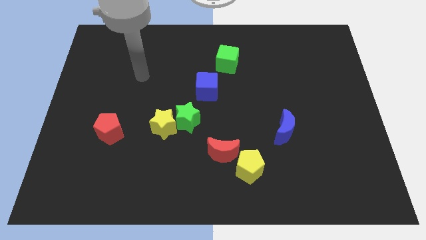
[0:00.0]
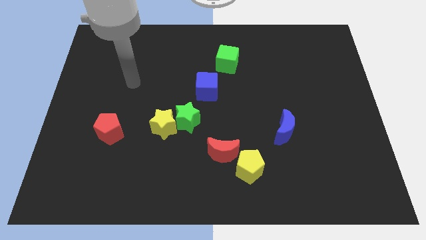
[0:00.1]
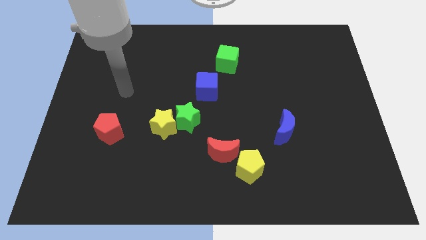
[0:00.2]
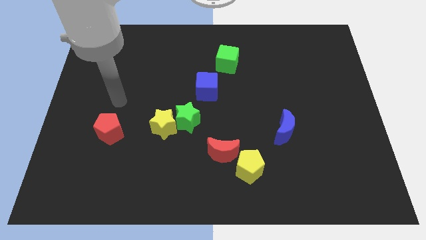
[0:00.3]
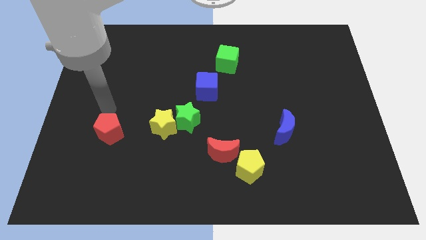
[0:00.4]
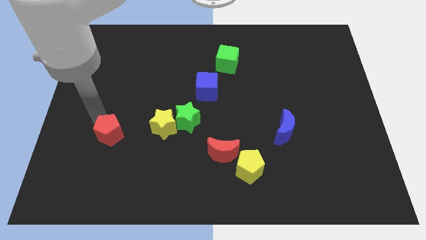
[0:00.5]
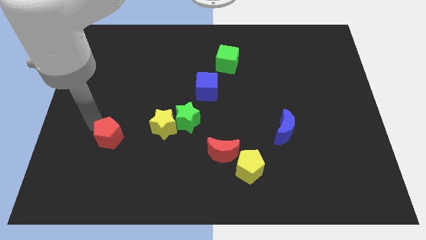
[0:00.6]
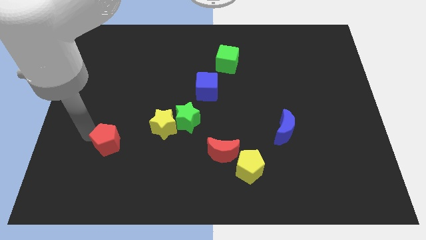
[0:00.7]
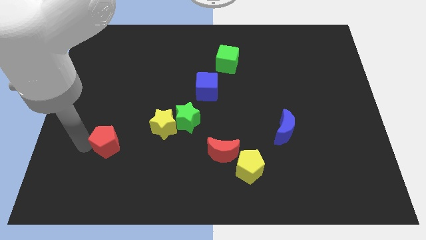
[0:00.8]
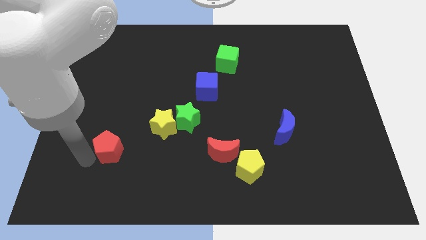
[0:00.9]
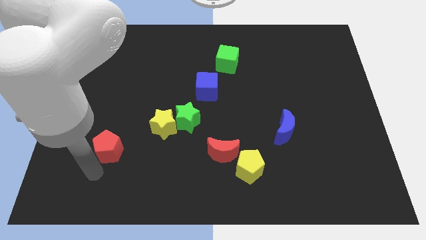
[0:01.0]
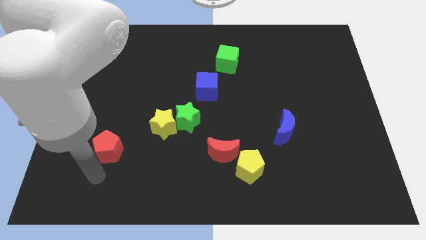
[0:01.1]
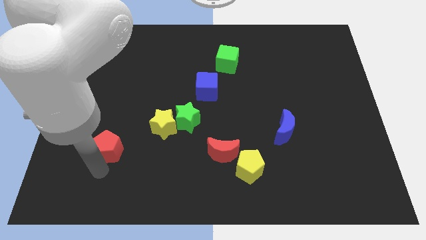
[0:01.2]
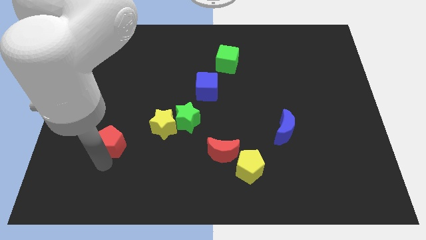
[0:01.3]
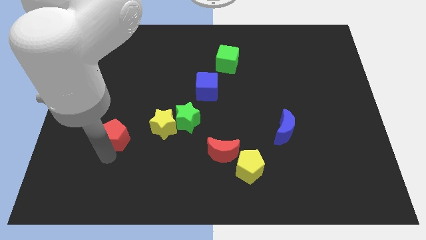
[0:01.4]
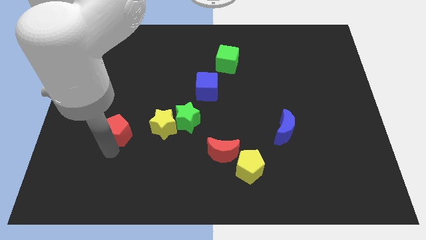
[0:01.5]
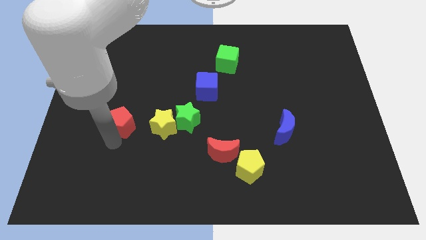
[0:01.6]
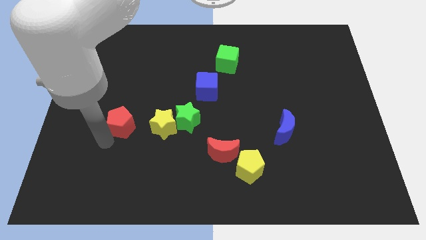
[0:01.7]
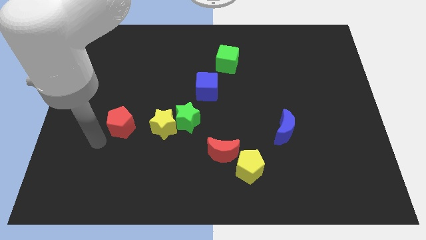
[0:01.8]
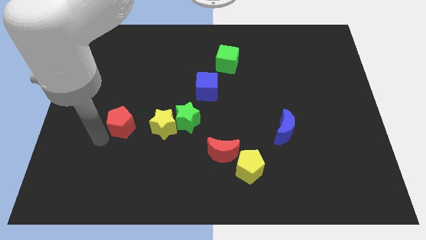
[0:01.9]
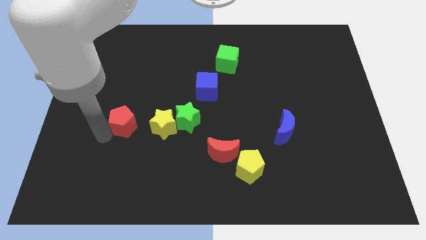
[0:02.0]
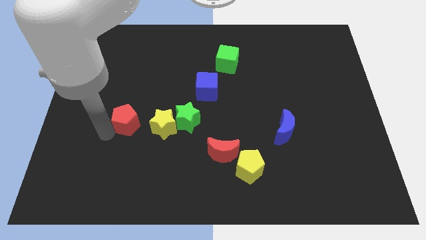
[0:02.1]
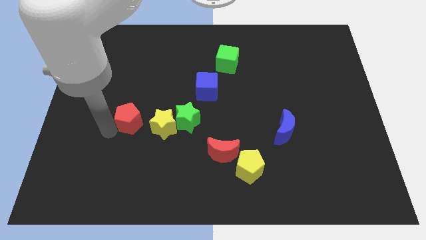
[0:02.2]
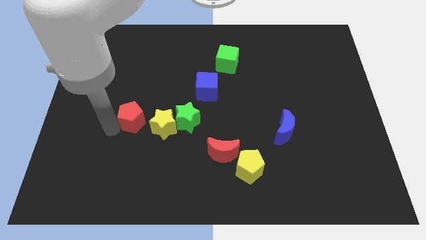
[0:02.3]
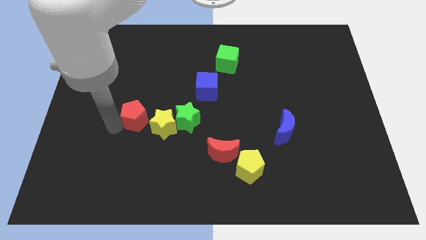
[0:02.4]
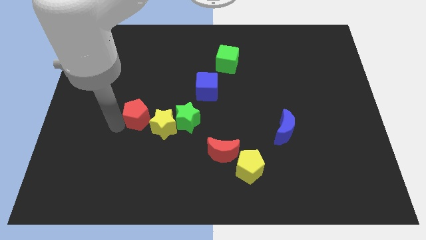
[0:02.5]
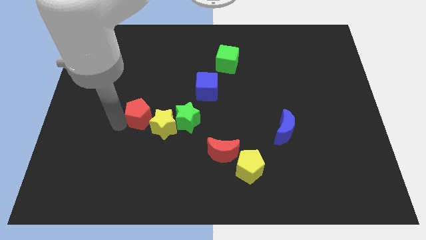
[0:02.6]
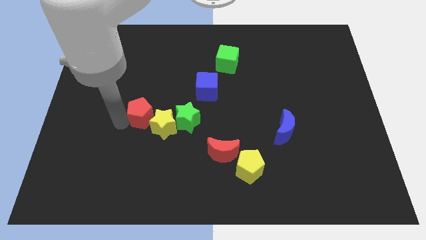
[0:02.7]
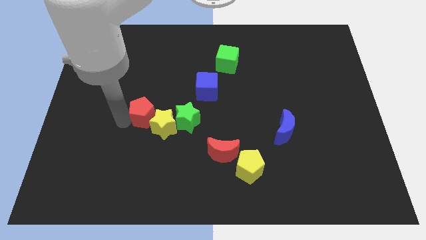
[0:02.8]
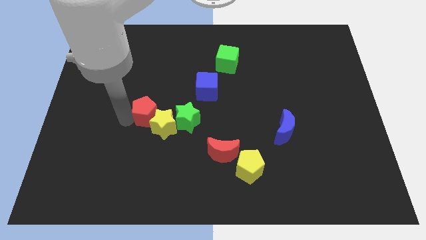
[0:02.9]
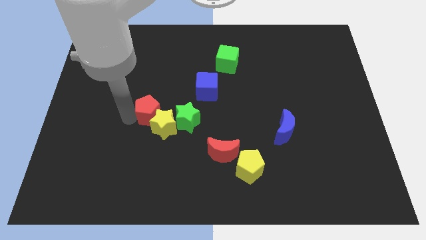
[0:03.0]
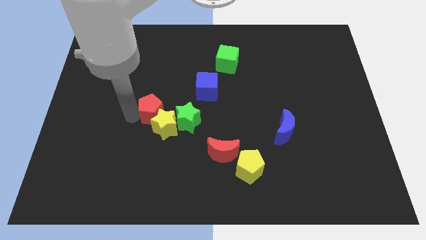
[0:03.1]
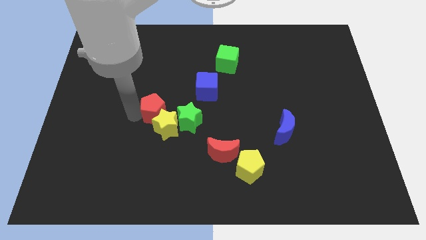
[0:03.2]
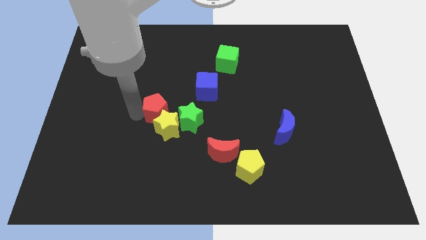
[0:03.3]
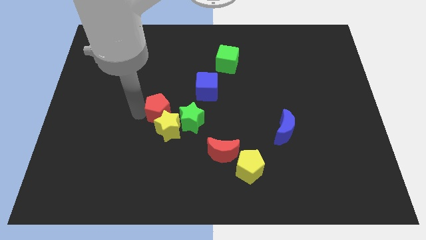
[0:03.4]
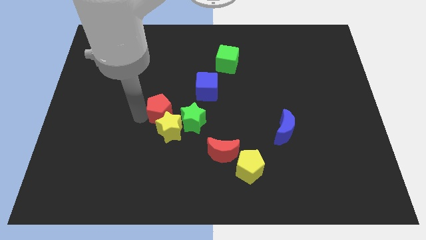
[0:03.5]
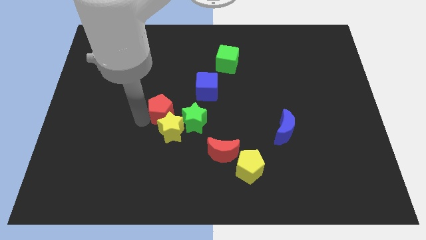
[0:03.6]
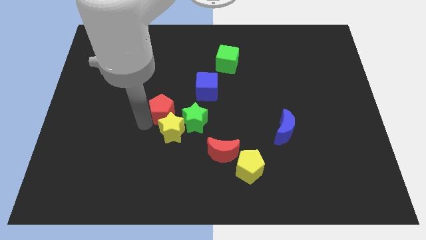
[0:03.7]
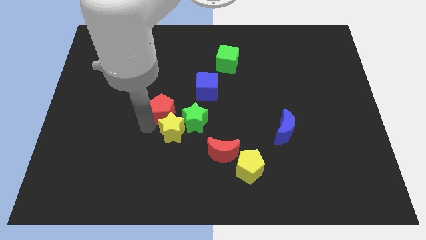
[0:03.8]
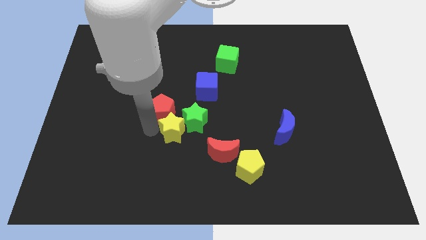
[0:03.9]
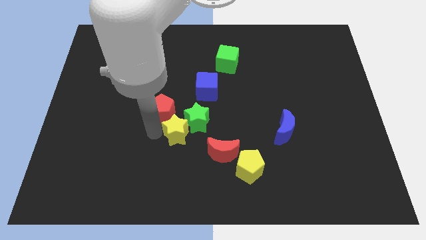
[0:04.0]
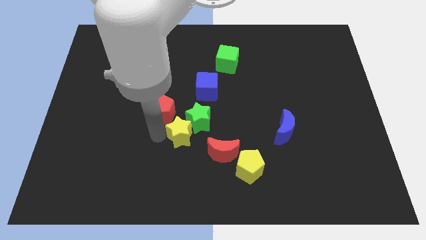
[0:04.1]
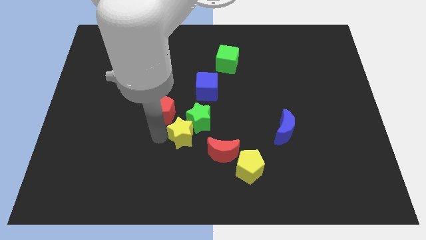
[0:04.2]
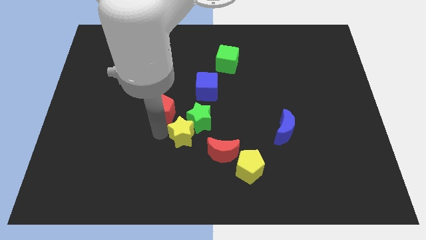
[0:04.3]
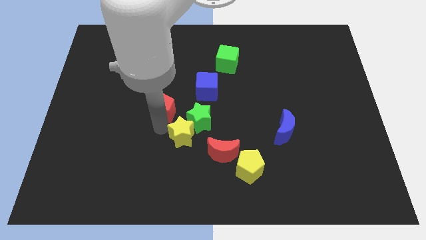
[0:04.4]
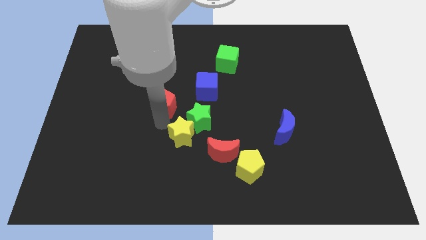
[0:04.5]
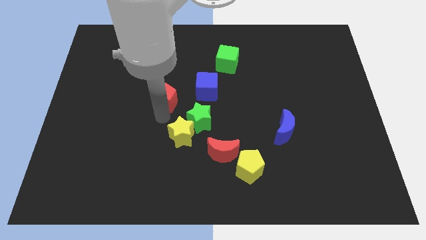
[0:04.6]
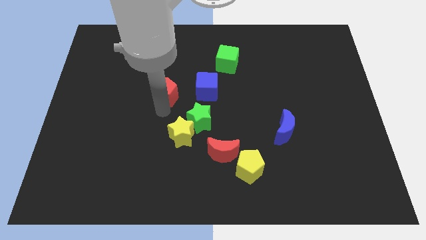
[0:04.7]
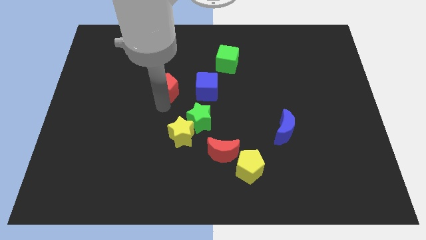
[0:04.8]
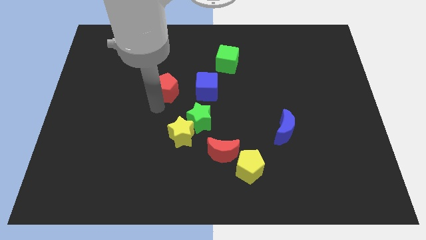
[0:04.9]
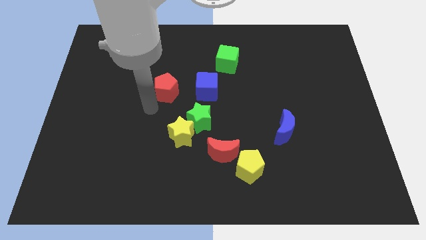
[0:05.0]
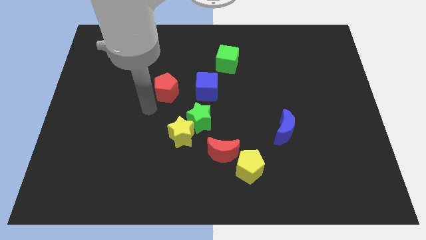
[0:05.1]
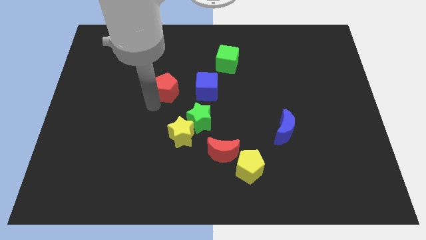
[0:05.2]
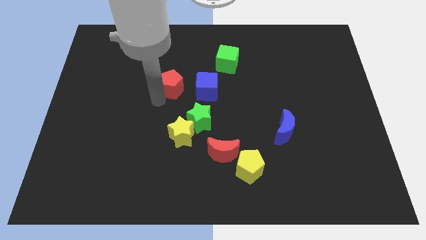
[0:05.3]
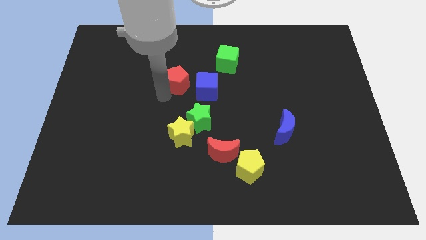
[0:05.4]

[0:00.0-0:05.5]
push the red pentagon to the top left of the blue cube

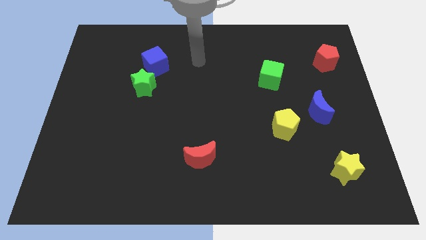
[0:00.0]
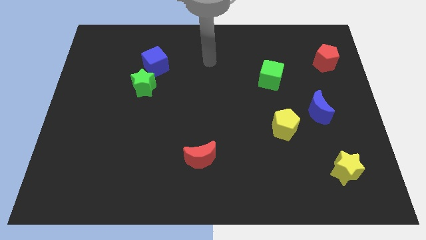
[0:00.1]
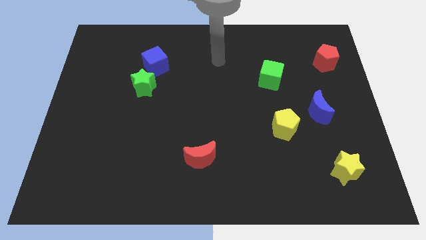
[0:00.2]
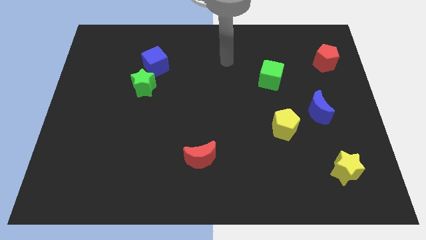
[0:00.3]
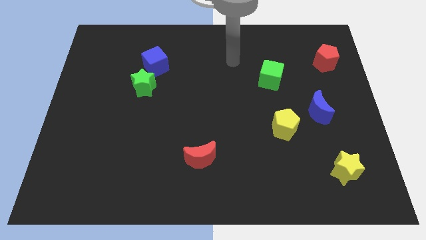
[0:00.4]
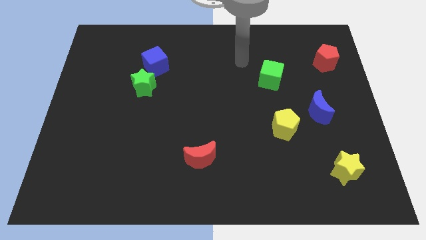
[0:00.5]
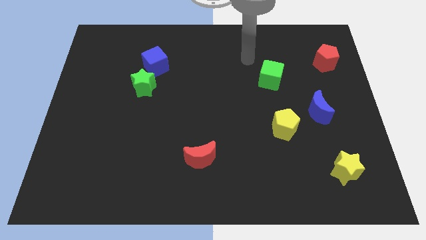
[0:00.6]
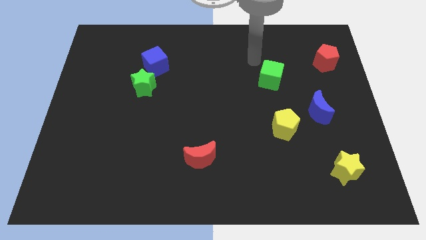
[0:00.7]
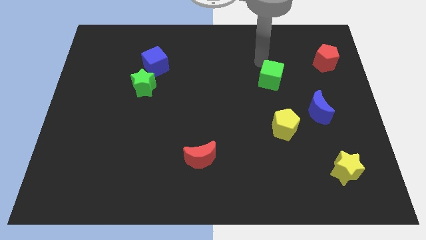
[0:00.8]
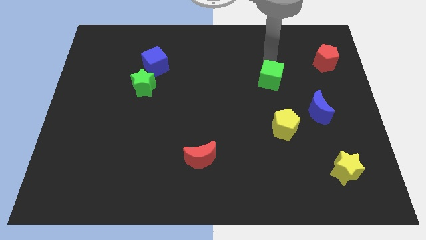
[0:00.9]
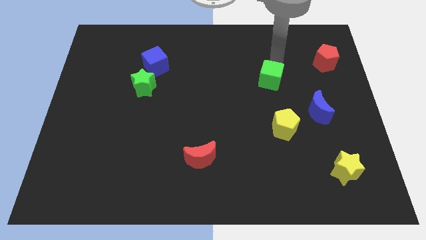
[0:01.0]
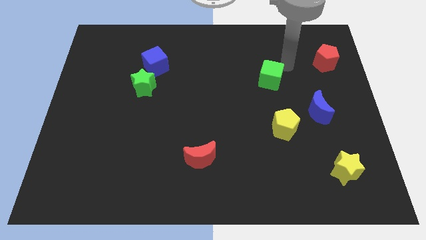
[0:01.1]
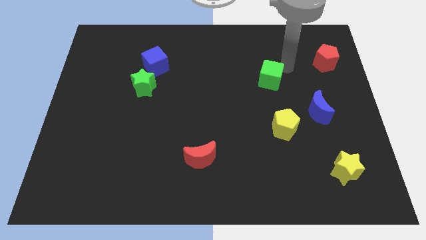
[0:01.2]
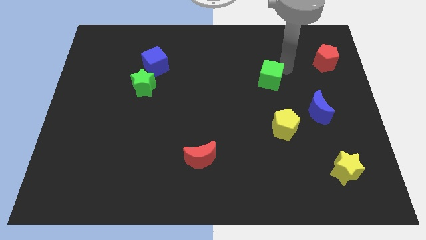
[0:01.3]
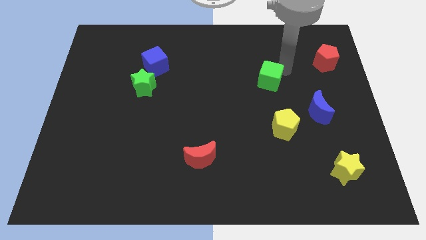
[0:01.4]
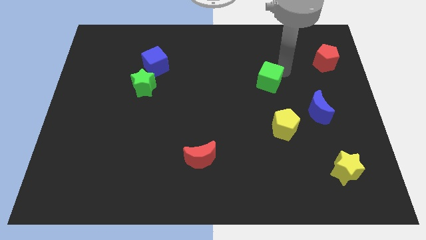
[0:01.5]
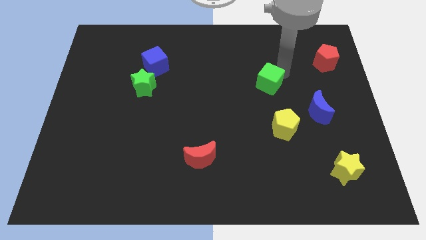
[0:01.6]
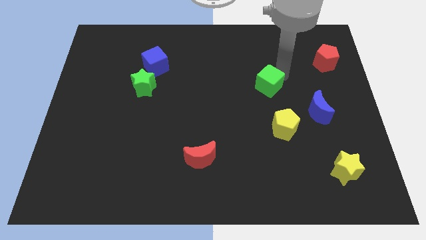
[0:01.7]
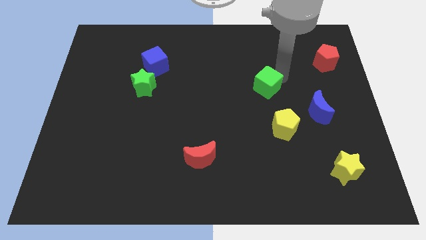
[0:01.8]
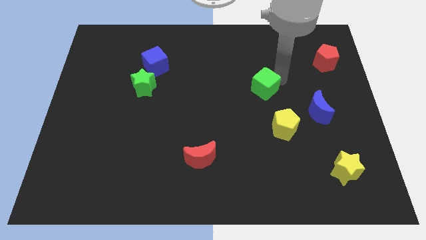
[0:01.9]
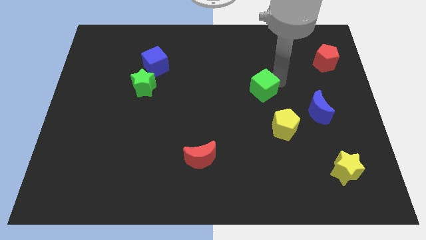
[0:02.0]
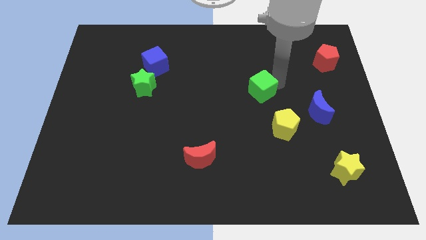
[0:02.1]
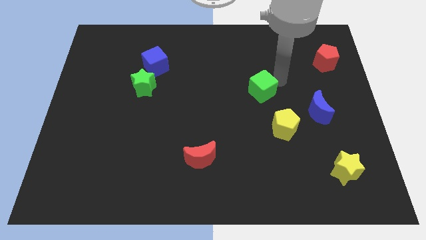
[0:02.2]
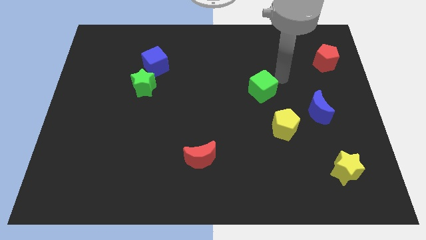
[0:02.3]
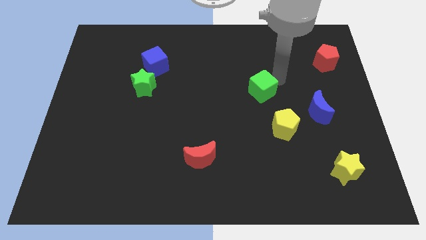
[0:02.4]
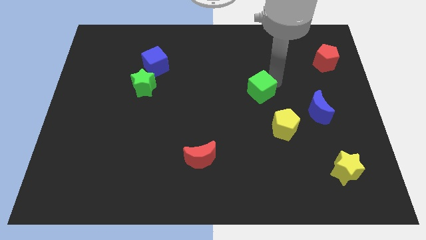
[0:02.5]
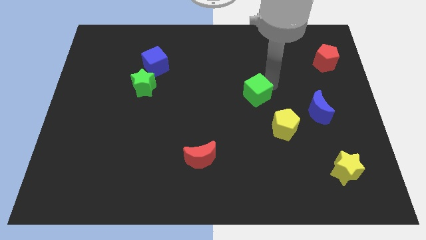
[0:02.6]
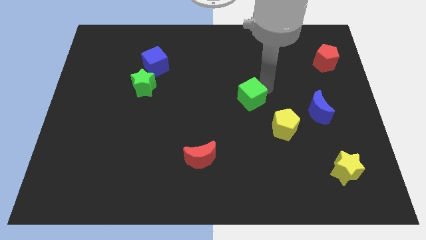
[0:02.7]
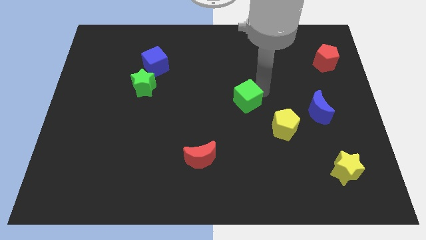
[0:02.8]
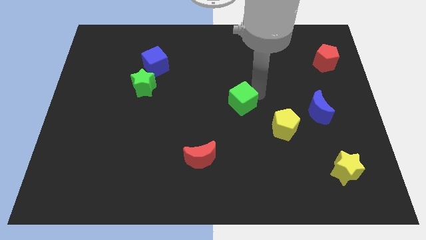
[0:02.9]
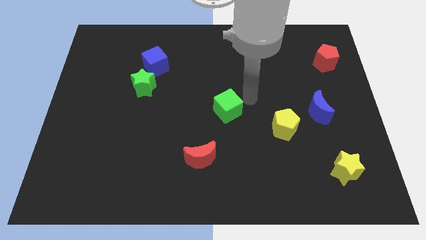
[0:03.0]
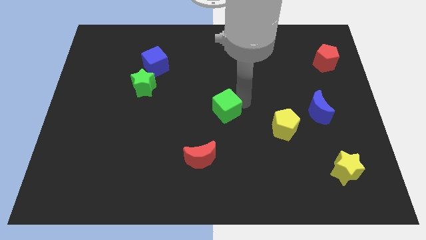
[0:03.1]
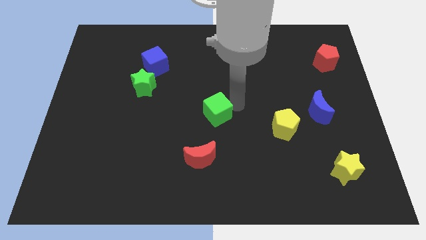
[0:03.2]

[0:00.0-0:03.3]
slide the green cube to the top of the red moon
